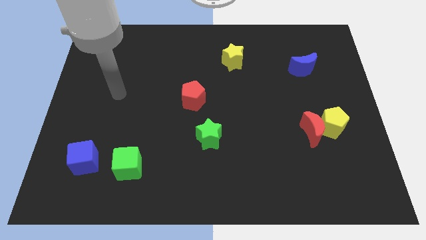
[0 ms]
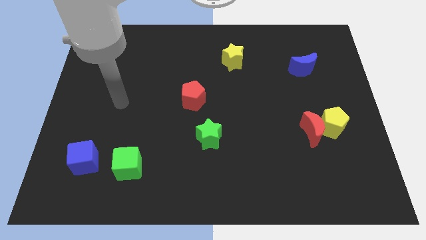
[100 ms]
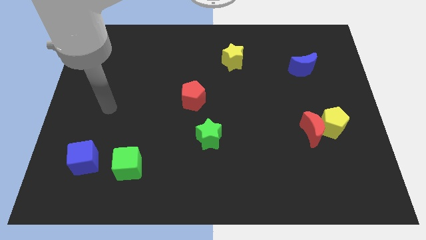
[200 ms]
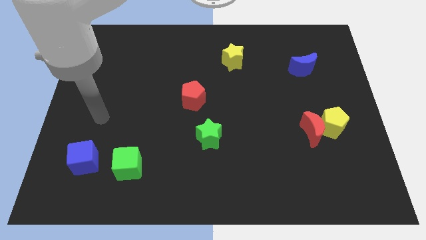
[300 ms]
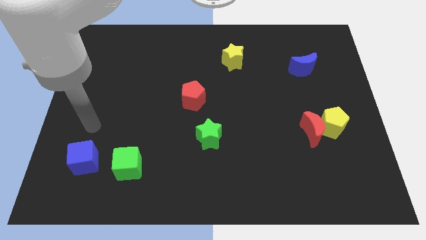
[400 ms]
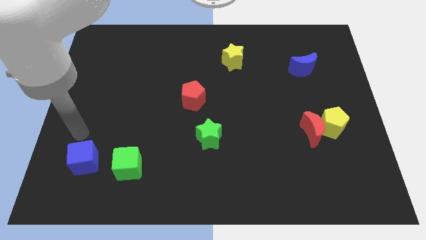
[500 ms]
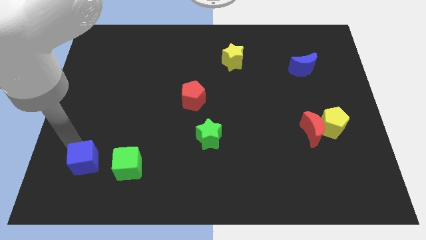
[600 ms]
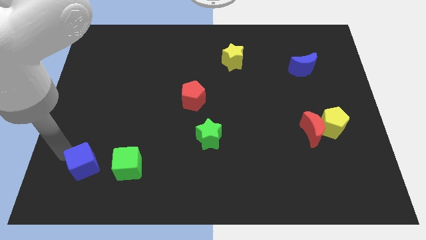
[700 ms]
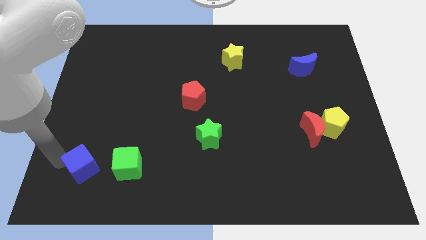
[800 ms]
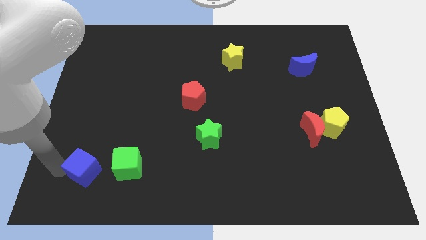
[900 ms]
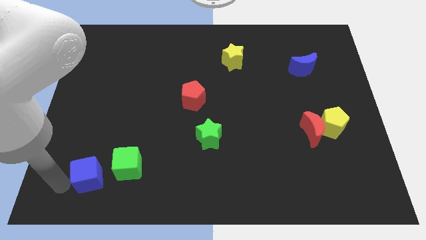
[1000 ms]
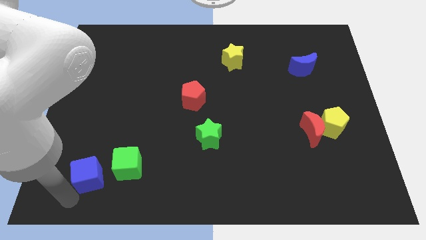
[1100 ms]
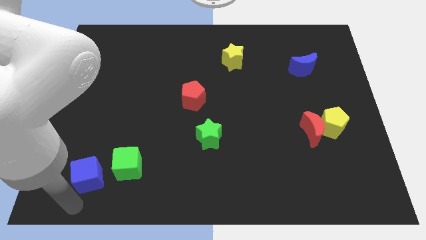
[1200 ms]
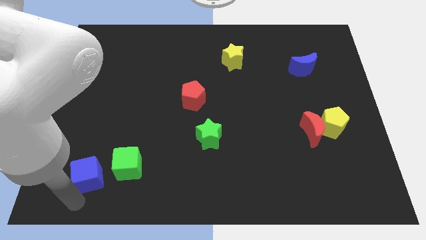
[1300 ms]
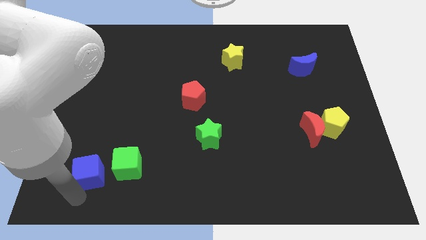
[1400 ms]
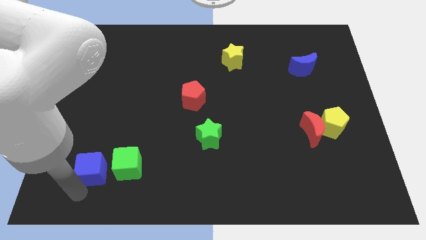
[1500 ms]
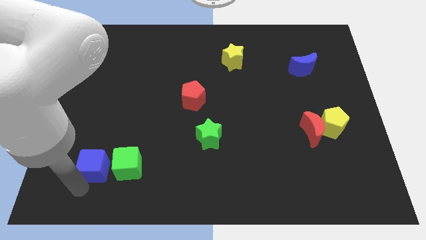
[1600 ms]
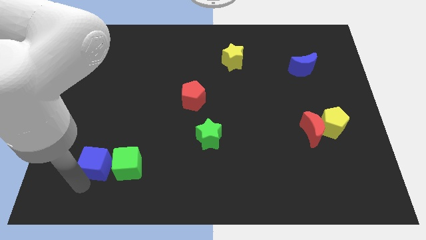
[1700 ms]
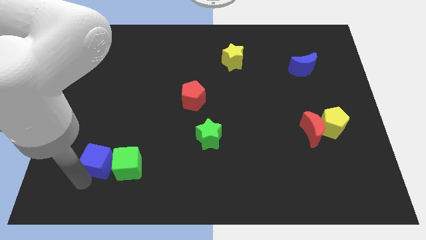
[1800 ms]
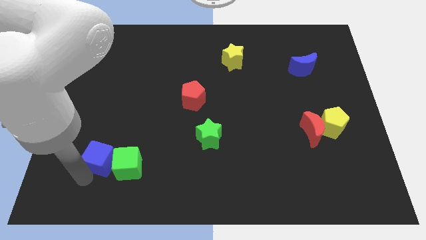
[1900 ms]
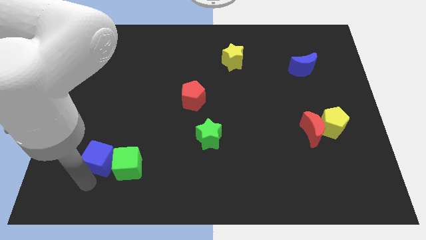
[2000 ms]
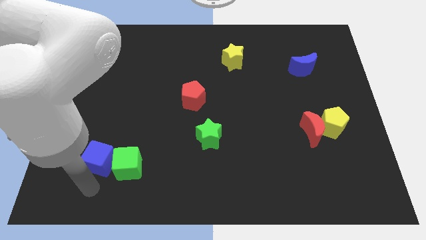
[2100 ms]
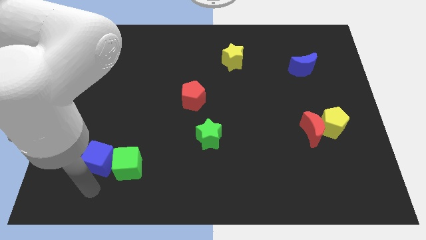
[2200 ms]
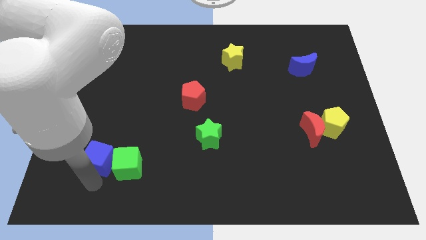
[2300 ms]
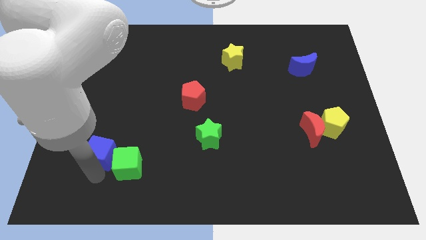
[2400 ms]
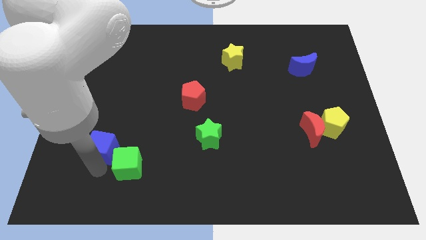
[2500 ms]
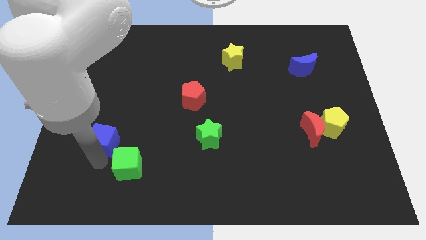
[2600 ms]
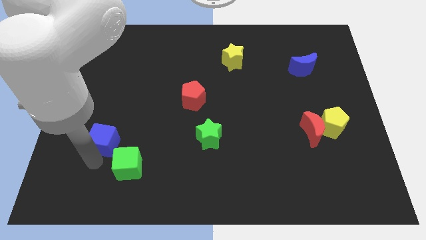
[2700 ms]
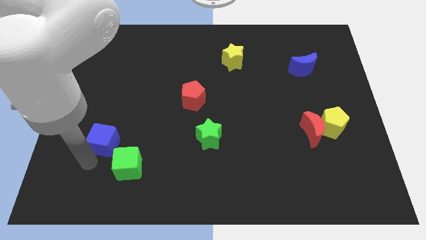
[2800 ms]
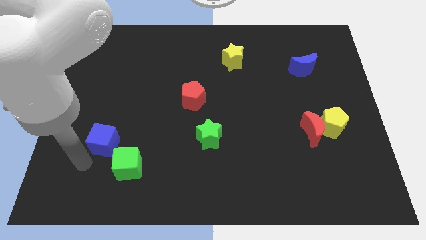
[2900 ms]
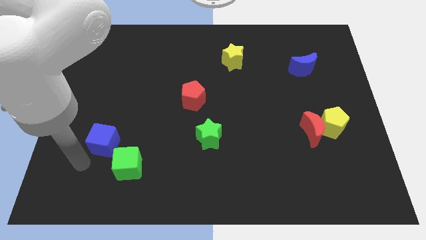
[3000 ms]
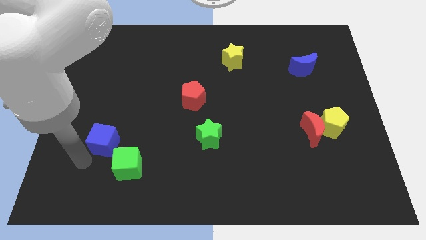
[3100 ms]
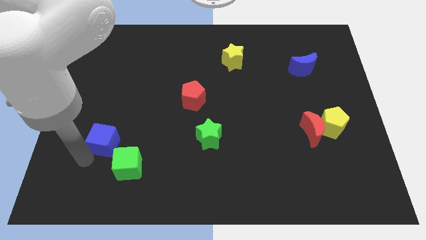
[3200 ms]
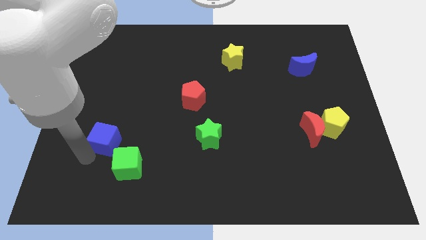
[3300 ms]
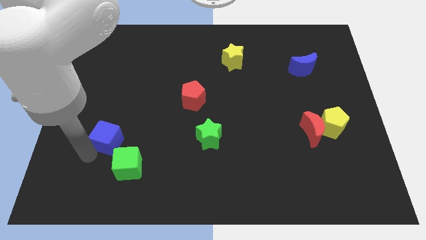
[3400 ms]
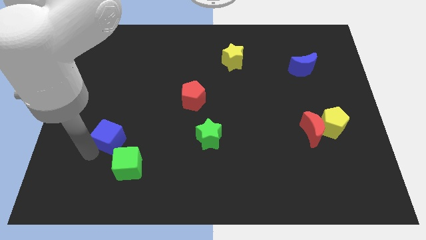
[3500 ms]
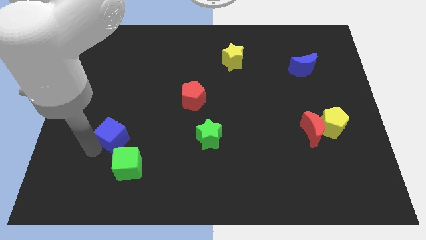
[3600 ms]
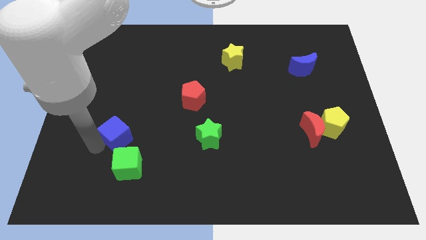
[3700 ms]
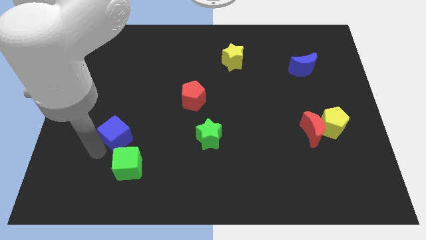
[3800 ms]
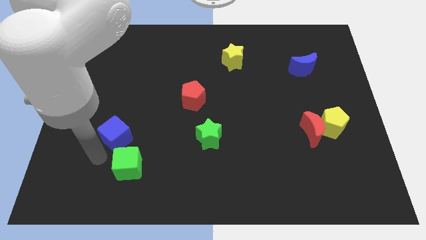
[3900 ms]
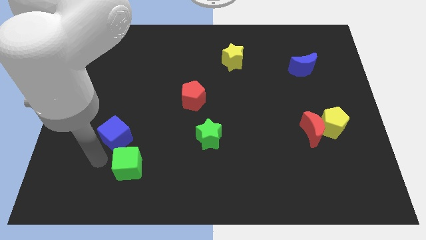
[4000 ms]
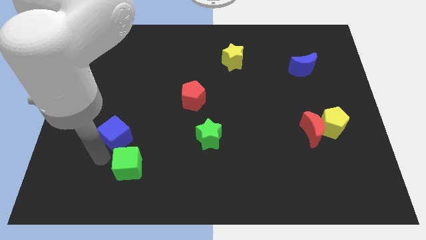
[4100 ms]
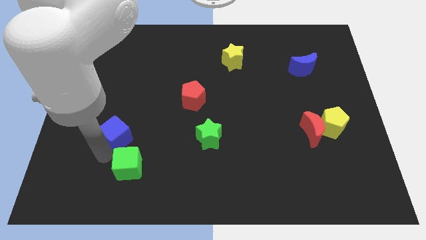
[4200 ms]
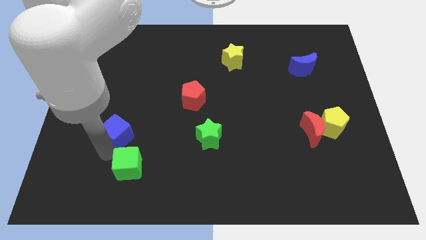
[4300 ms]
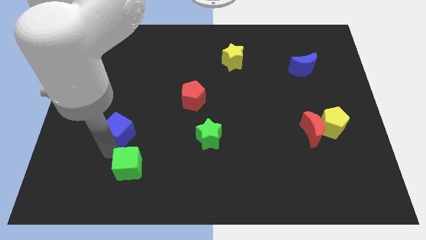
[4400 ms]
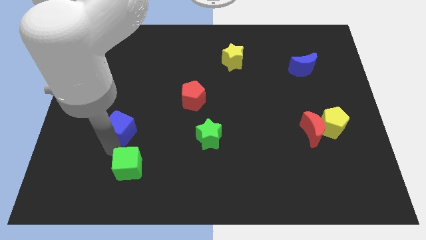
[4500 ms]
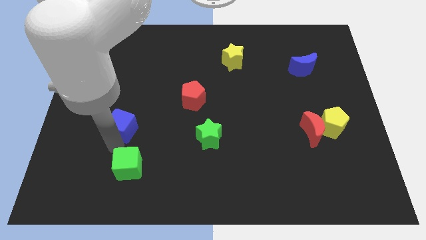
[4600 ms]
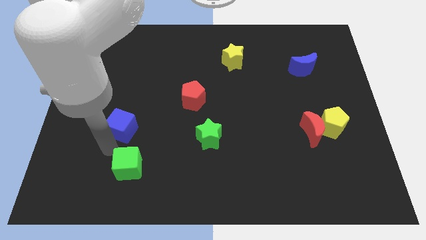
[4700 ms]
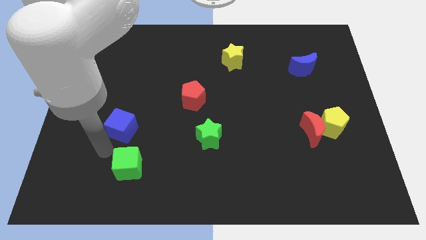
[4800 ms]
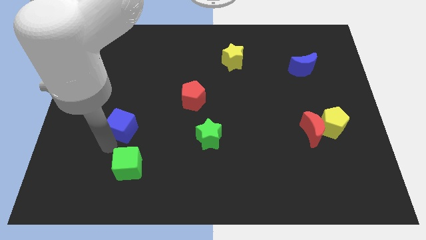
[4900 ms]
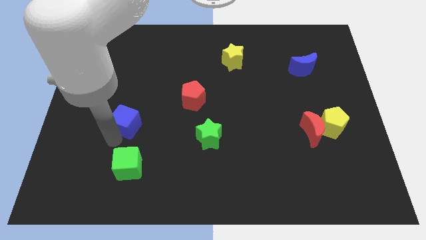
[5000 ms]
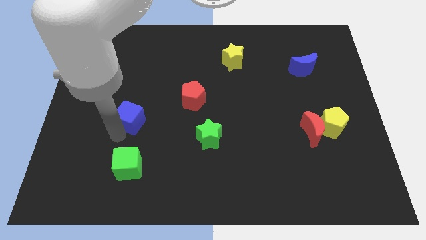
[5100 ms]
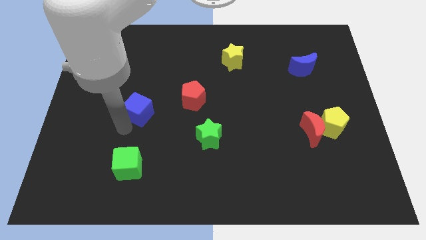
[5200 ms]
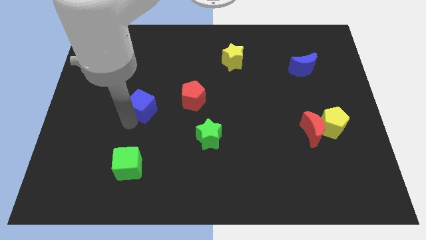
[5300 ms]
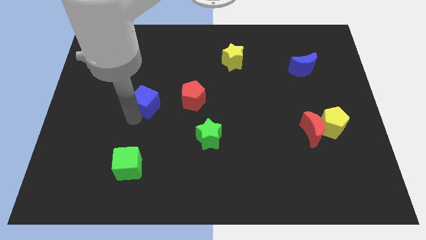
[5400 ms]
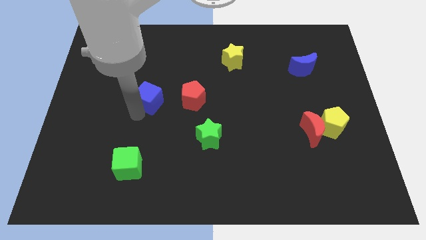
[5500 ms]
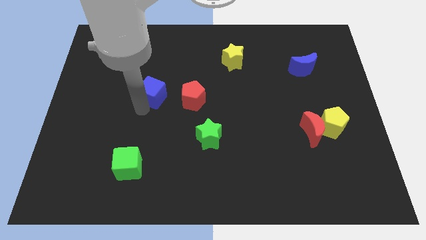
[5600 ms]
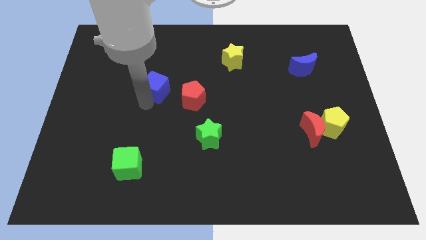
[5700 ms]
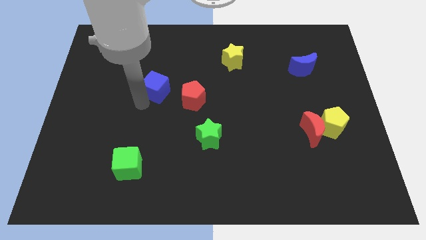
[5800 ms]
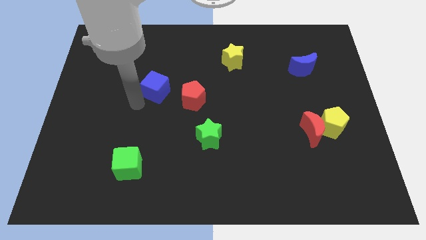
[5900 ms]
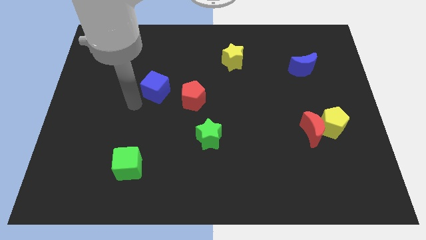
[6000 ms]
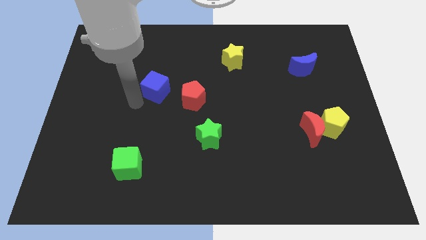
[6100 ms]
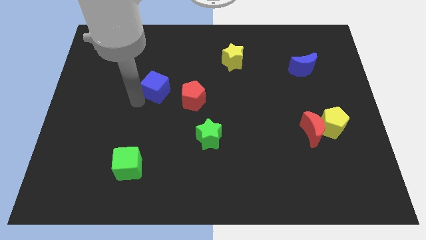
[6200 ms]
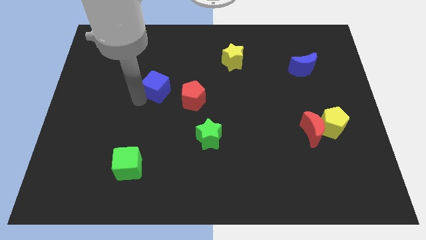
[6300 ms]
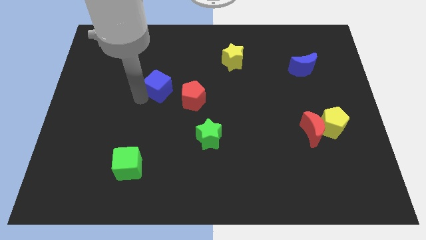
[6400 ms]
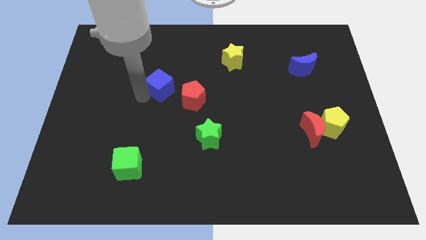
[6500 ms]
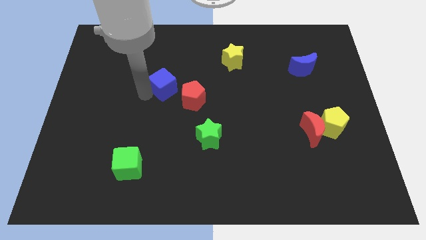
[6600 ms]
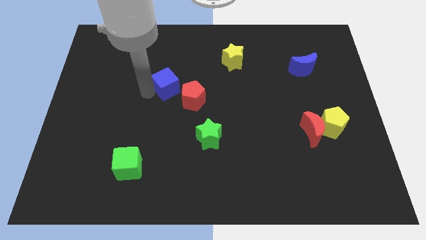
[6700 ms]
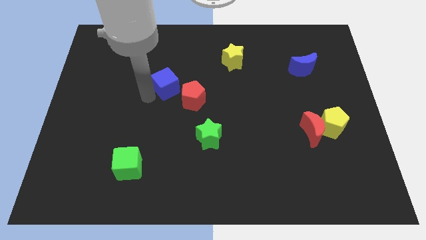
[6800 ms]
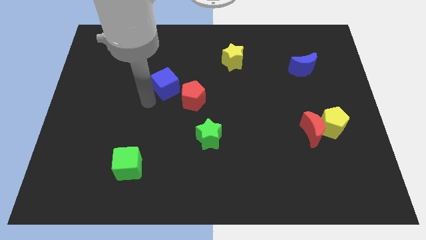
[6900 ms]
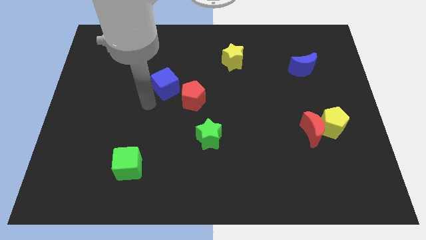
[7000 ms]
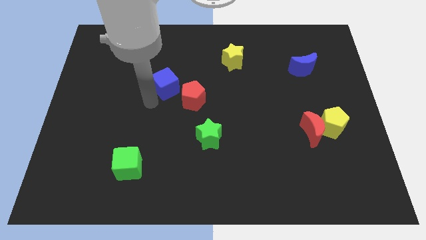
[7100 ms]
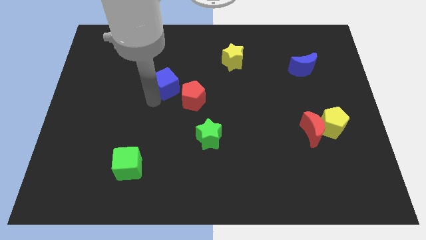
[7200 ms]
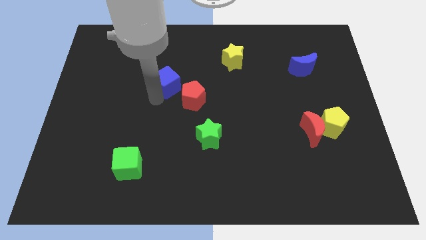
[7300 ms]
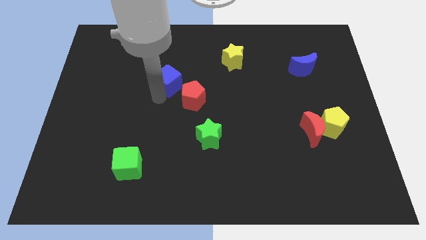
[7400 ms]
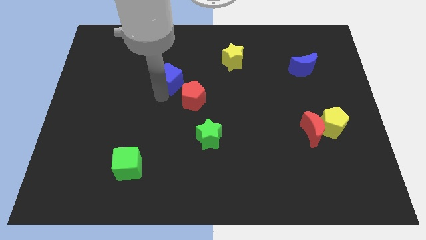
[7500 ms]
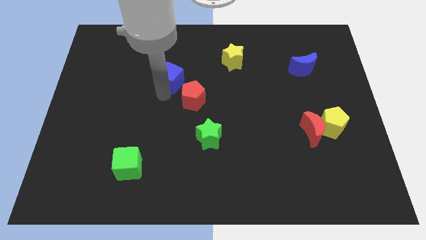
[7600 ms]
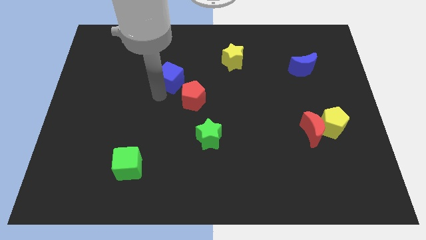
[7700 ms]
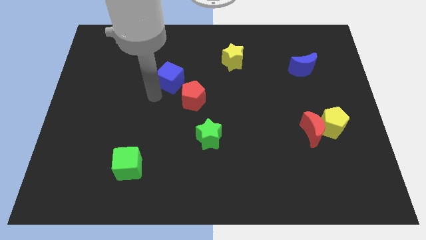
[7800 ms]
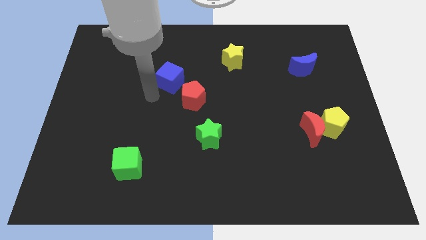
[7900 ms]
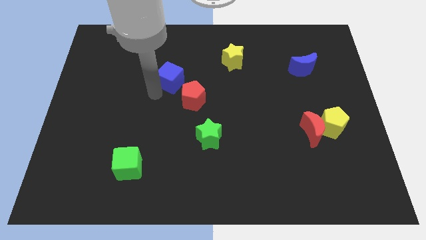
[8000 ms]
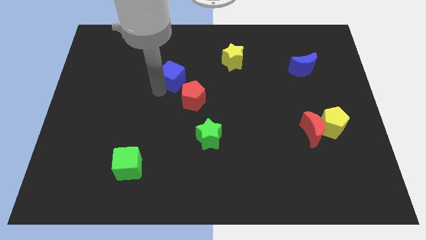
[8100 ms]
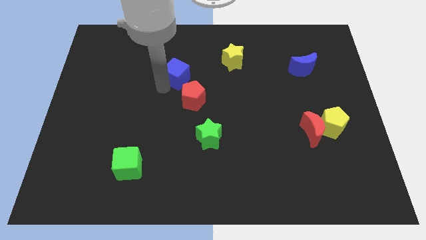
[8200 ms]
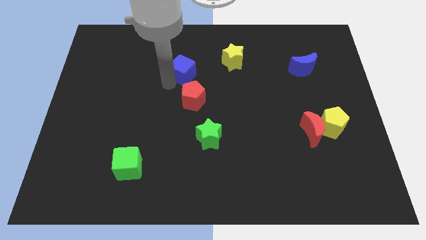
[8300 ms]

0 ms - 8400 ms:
put the blue cube to the left of the yellow star
